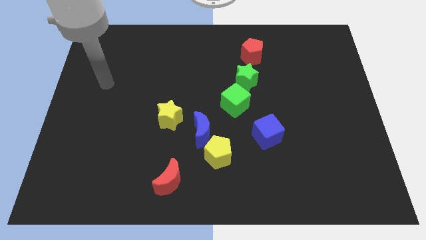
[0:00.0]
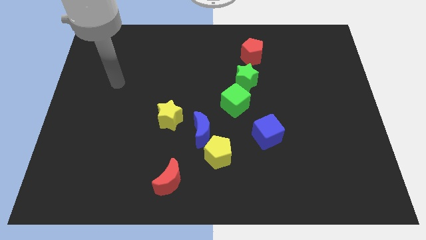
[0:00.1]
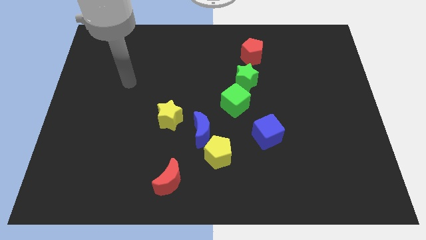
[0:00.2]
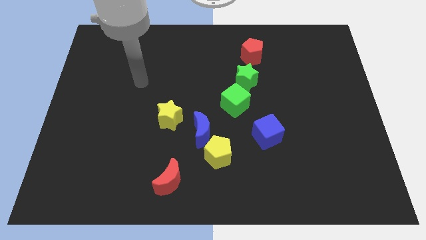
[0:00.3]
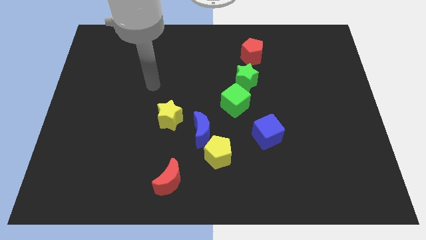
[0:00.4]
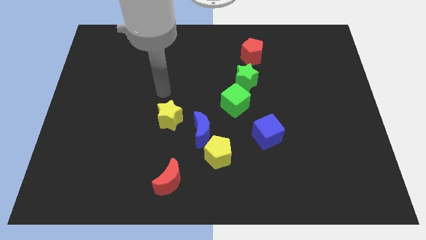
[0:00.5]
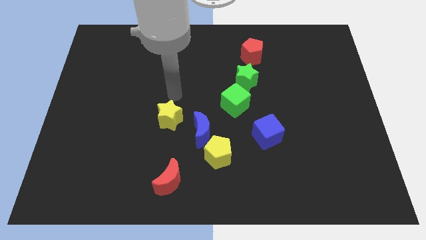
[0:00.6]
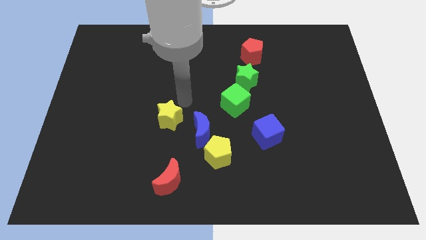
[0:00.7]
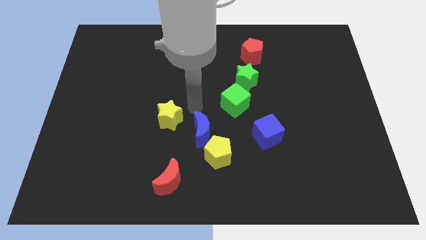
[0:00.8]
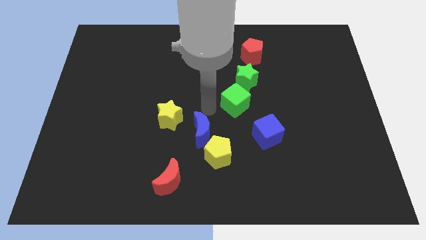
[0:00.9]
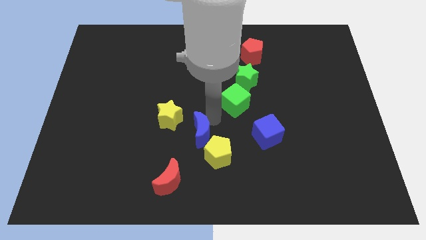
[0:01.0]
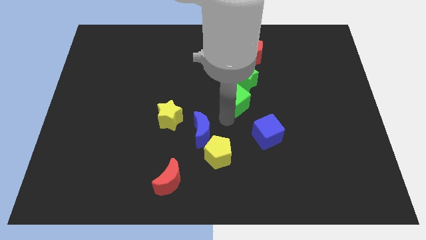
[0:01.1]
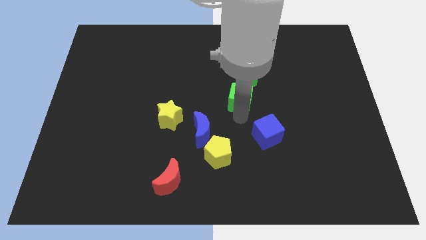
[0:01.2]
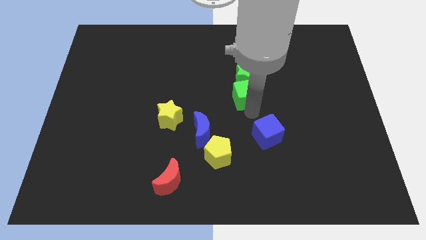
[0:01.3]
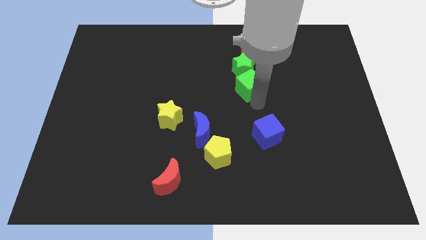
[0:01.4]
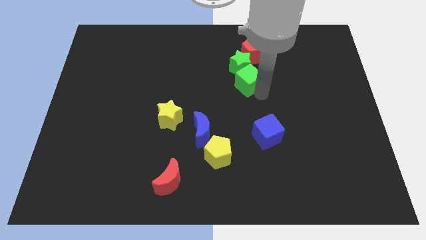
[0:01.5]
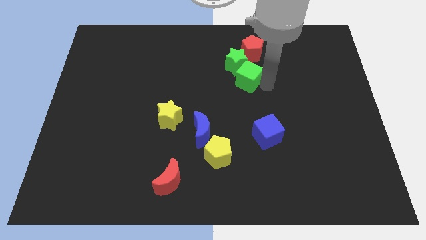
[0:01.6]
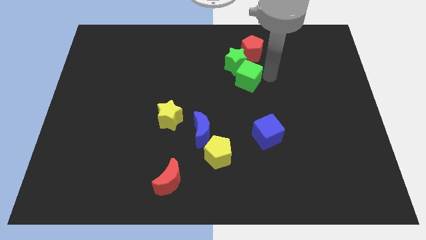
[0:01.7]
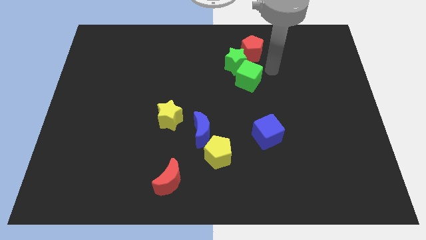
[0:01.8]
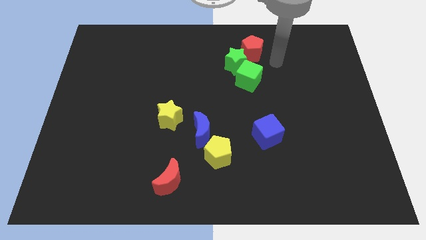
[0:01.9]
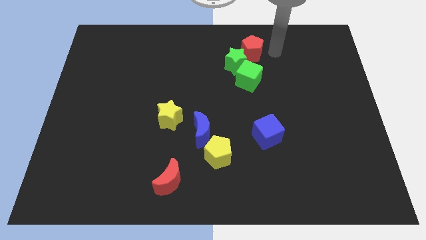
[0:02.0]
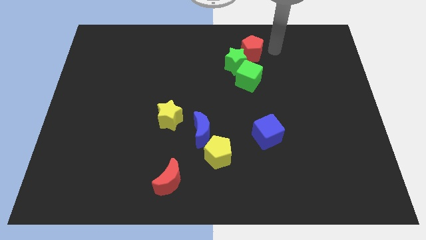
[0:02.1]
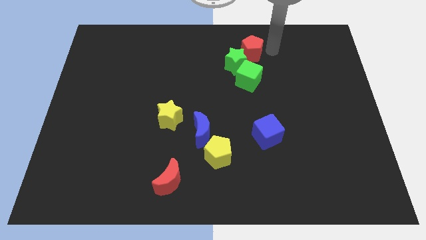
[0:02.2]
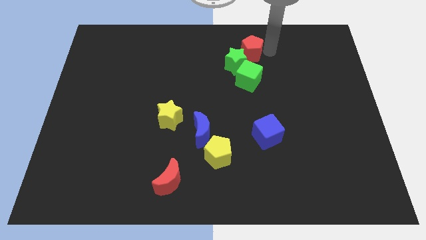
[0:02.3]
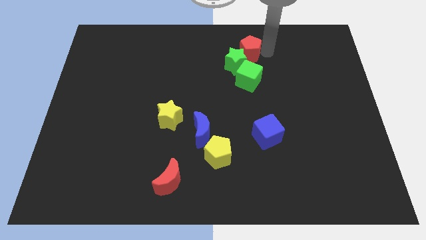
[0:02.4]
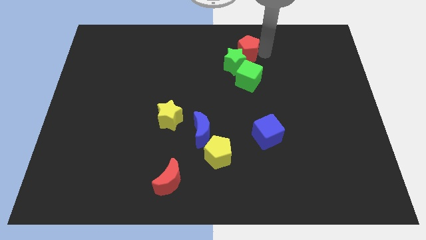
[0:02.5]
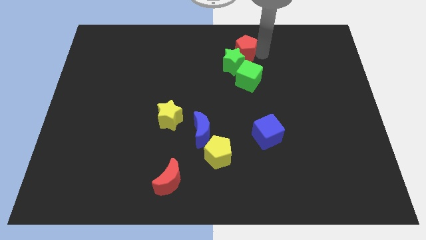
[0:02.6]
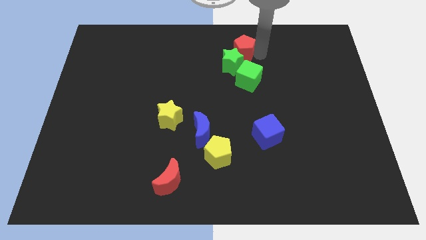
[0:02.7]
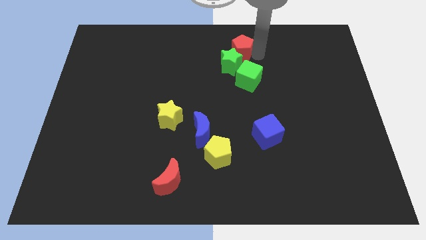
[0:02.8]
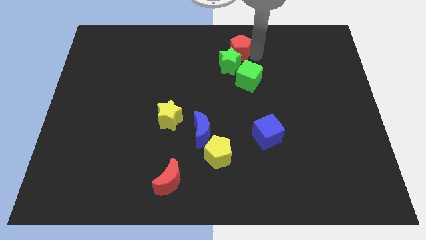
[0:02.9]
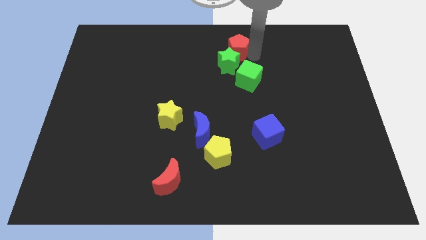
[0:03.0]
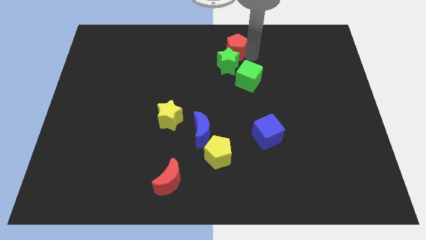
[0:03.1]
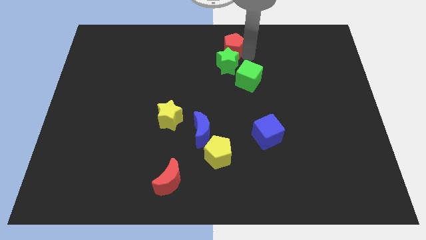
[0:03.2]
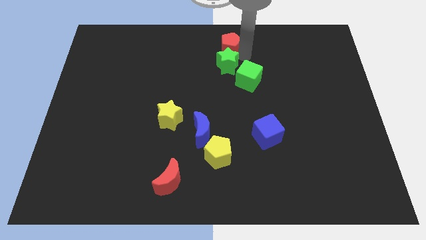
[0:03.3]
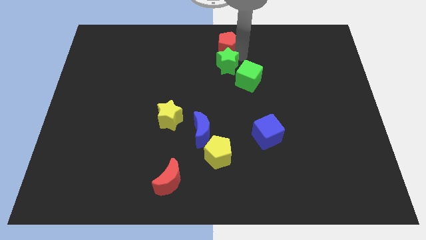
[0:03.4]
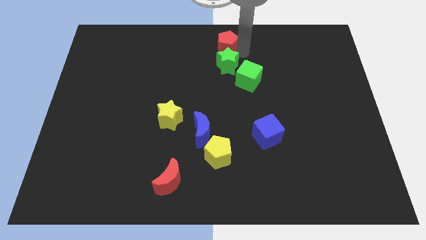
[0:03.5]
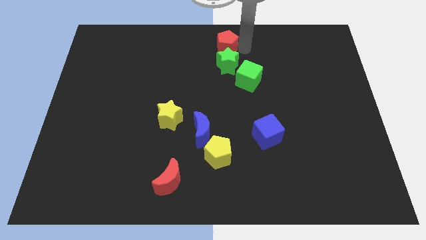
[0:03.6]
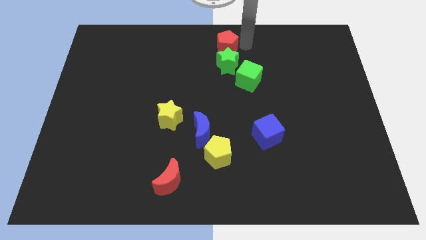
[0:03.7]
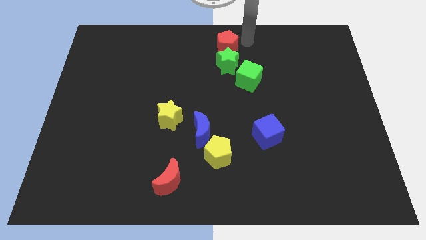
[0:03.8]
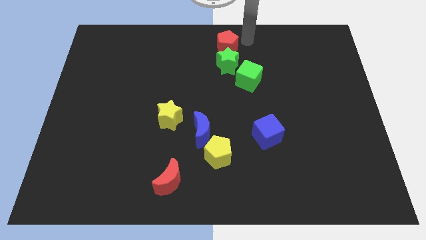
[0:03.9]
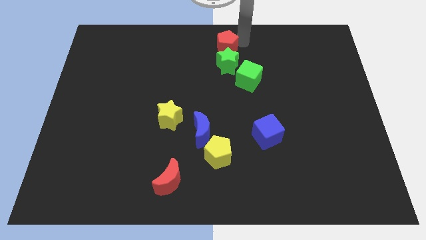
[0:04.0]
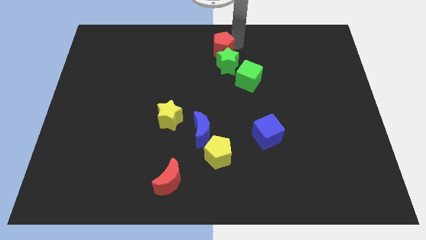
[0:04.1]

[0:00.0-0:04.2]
slightly move the red pentagon left

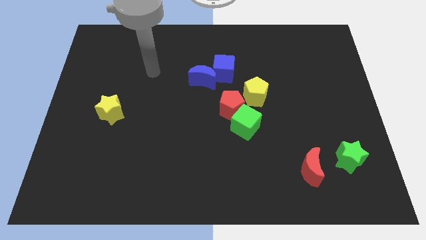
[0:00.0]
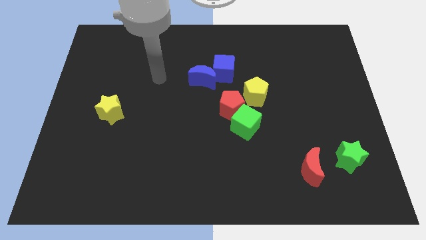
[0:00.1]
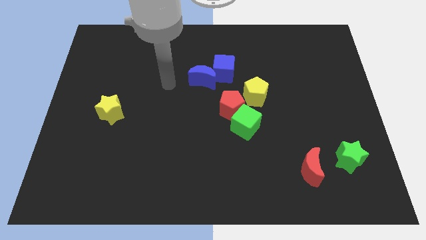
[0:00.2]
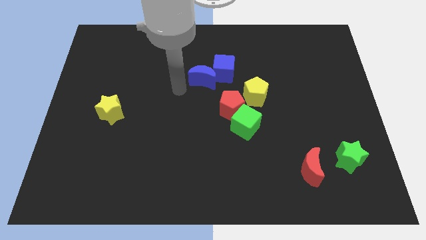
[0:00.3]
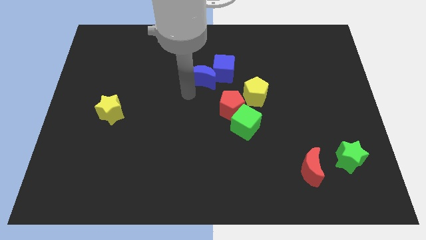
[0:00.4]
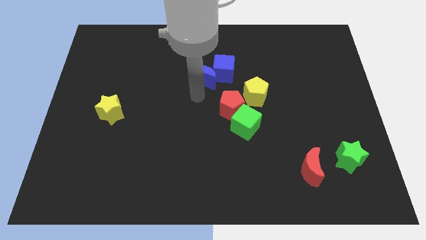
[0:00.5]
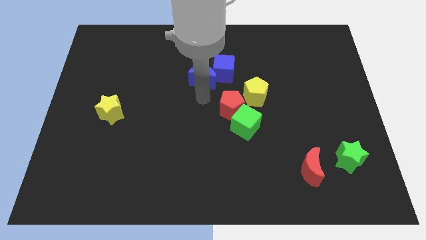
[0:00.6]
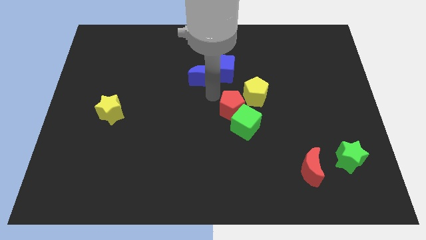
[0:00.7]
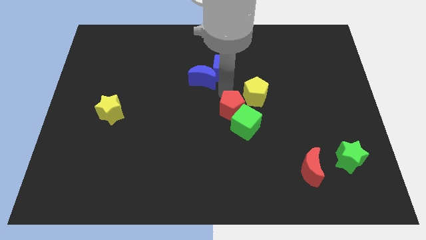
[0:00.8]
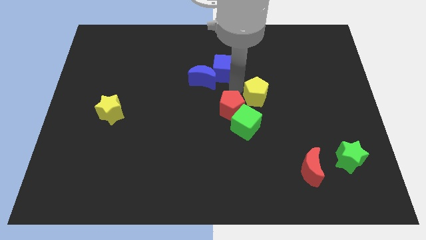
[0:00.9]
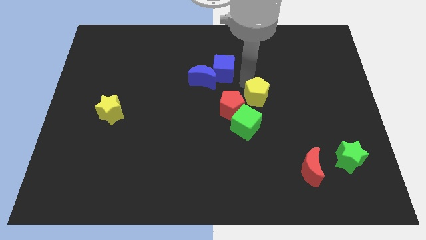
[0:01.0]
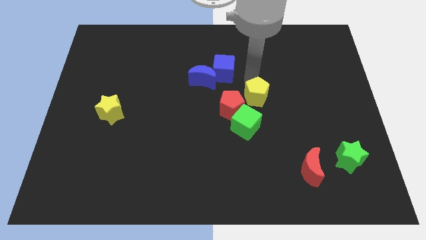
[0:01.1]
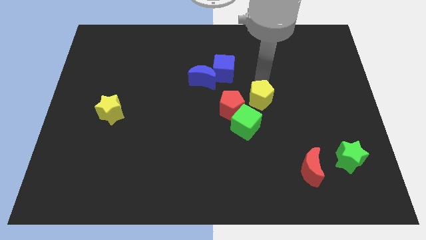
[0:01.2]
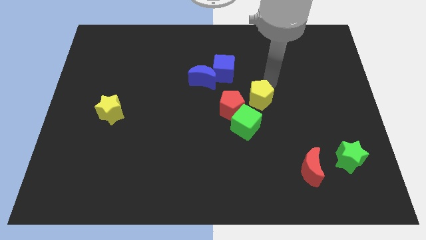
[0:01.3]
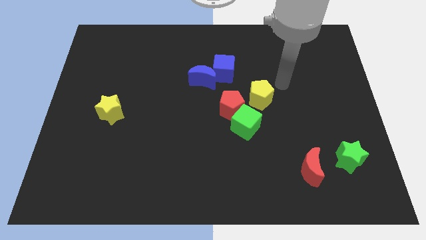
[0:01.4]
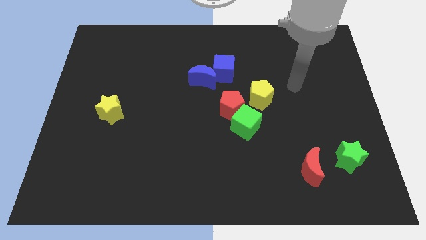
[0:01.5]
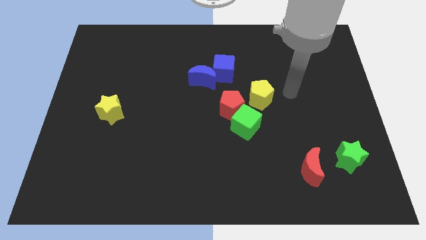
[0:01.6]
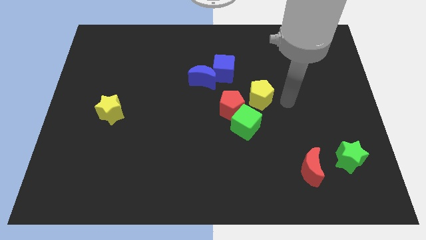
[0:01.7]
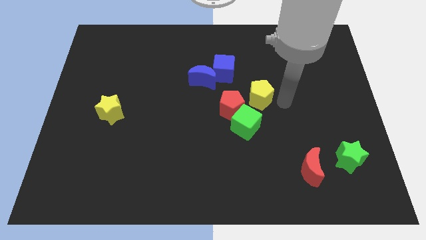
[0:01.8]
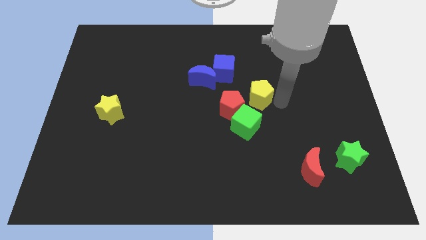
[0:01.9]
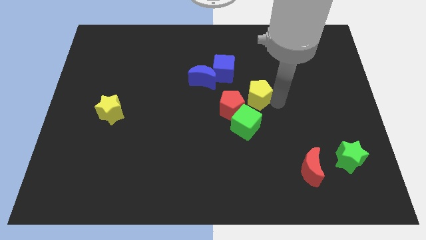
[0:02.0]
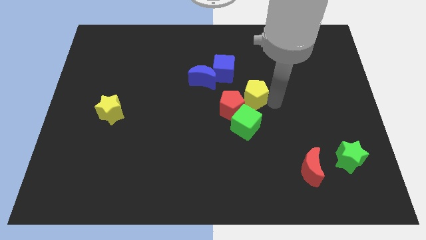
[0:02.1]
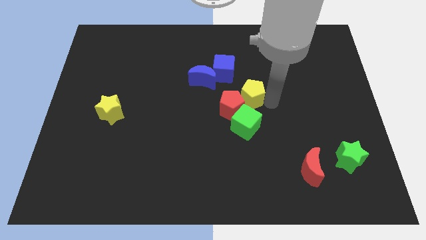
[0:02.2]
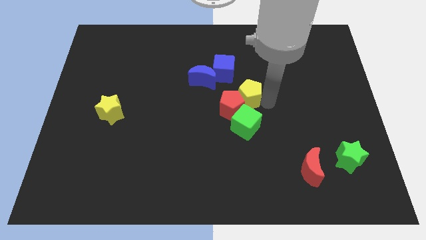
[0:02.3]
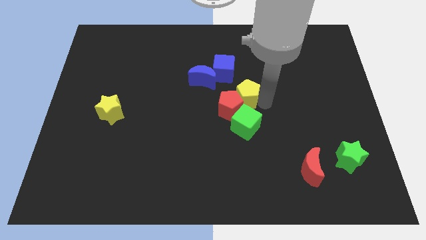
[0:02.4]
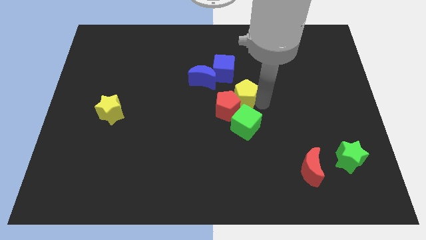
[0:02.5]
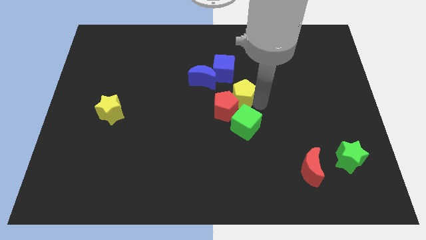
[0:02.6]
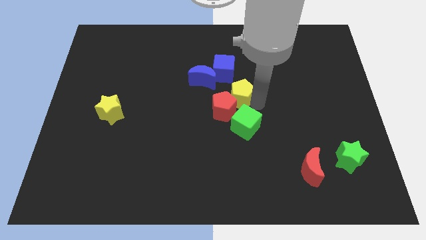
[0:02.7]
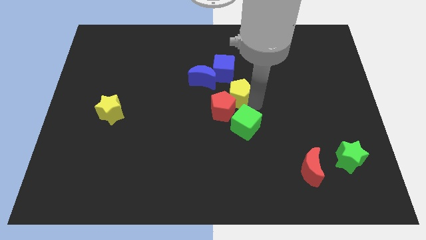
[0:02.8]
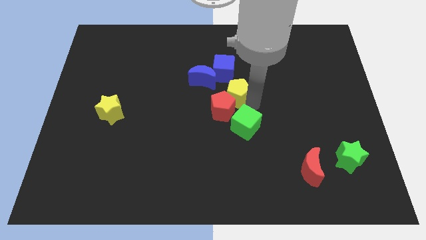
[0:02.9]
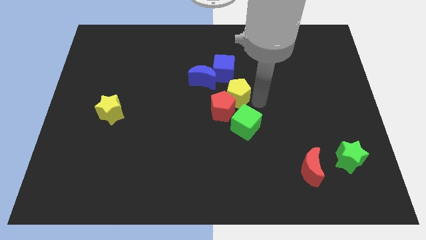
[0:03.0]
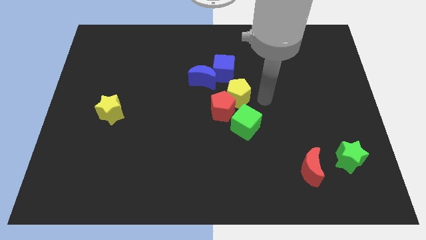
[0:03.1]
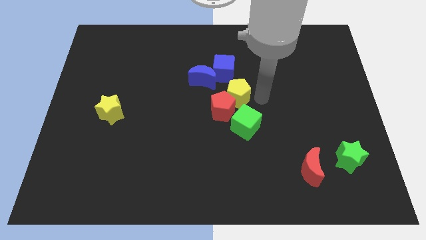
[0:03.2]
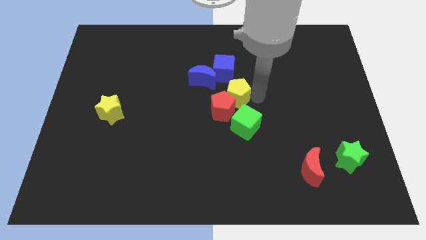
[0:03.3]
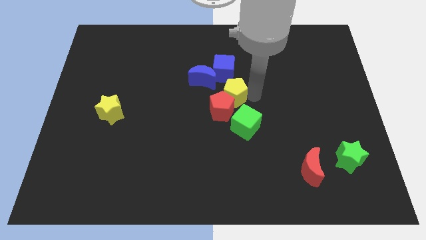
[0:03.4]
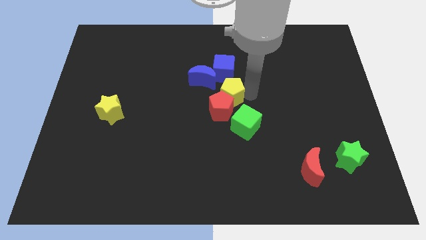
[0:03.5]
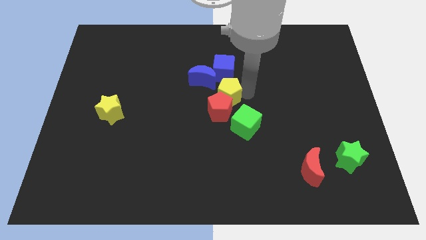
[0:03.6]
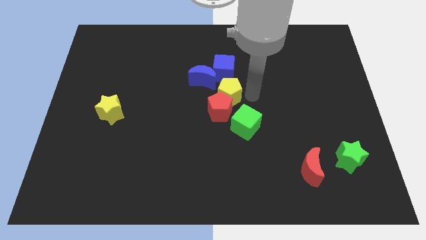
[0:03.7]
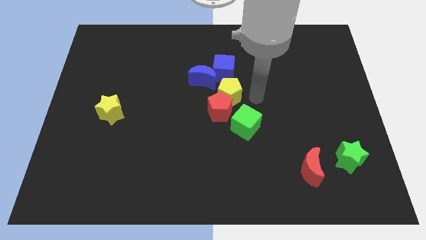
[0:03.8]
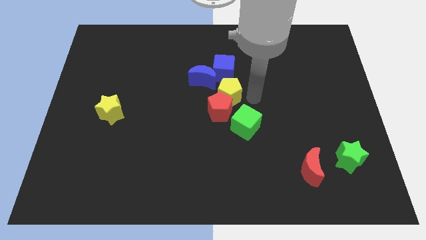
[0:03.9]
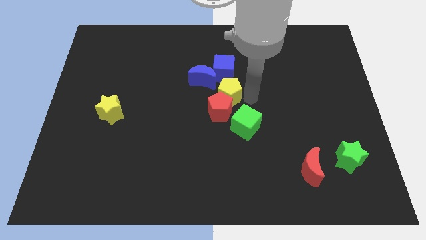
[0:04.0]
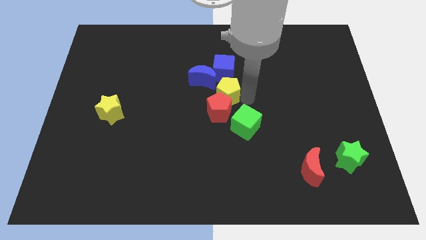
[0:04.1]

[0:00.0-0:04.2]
slightly slide the yellow pentagon left

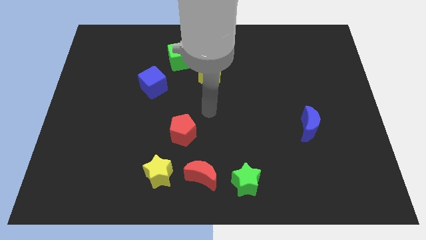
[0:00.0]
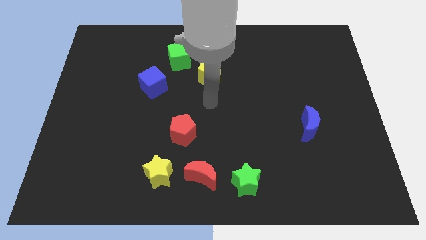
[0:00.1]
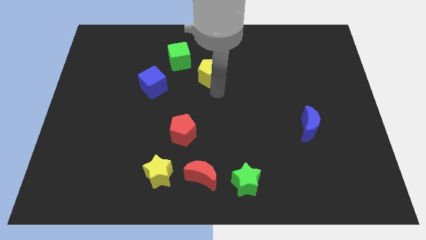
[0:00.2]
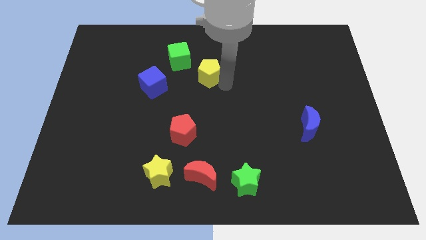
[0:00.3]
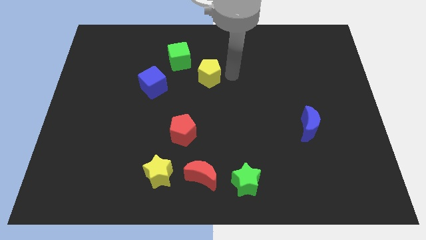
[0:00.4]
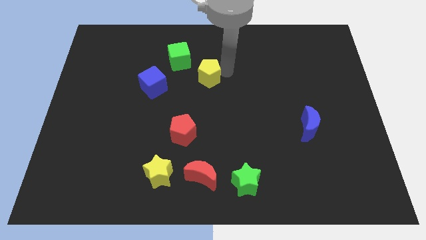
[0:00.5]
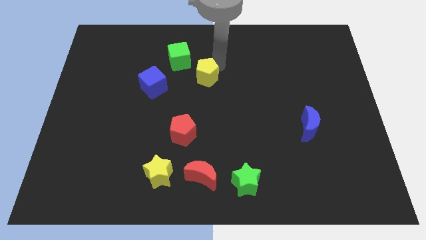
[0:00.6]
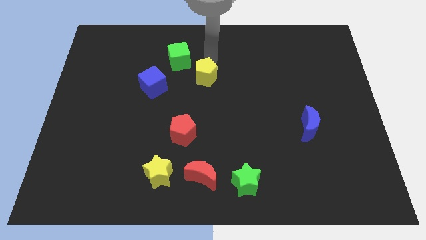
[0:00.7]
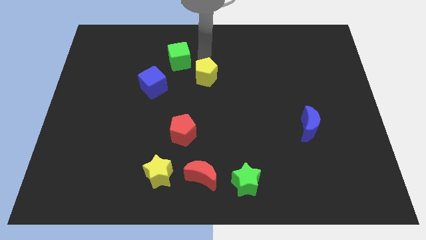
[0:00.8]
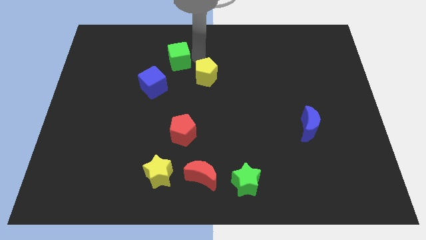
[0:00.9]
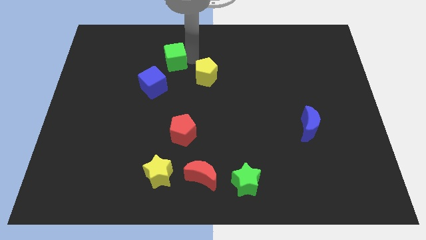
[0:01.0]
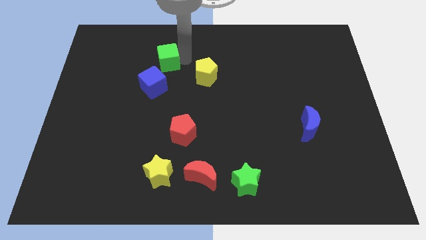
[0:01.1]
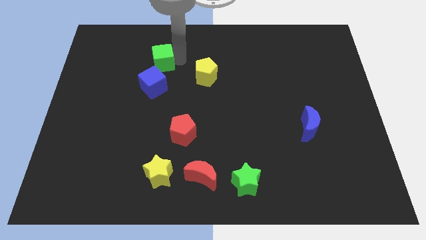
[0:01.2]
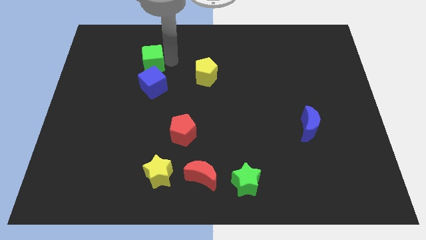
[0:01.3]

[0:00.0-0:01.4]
slightly push the green cube to the left
